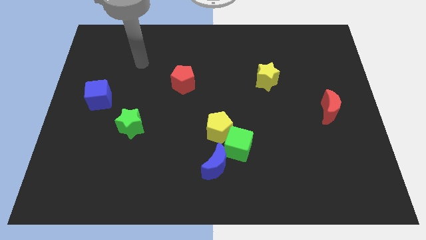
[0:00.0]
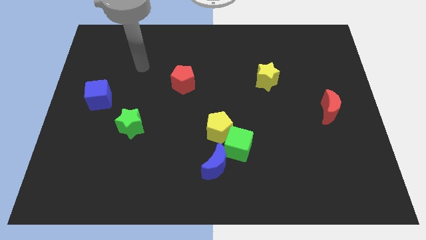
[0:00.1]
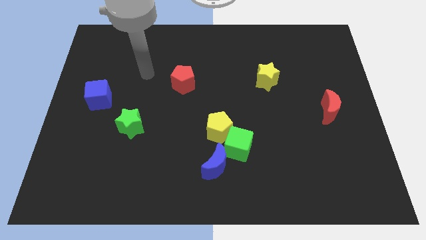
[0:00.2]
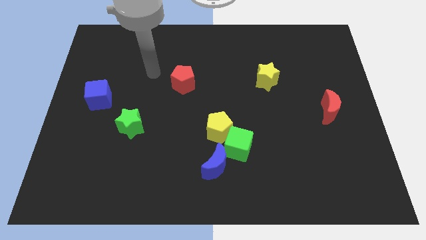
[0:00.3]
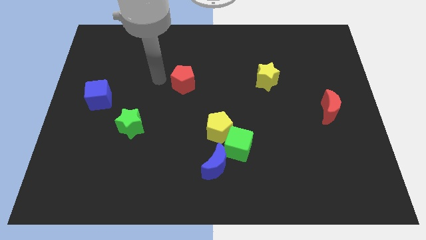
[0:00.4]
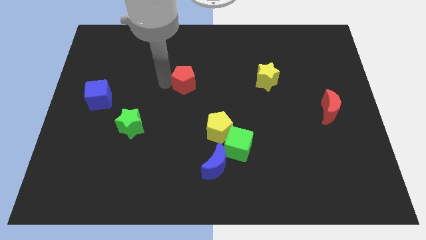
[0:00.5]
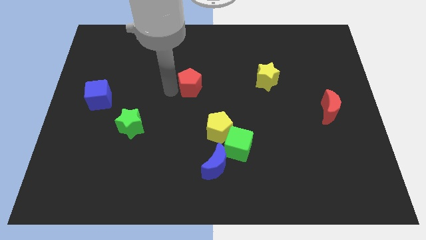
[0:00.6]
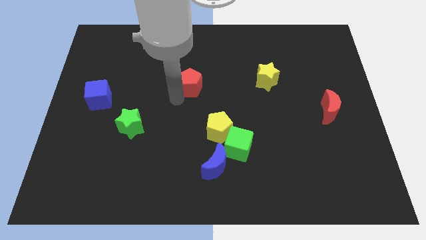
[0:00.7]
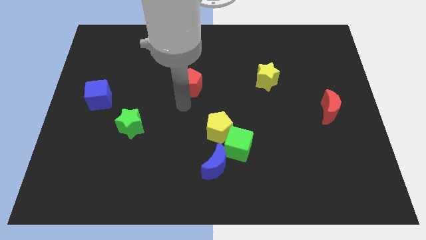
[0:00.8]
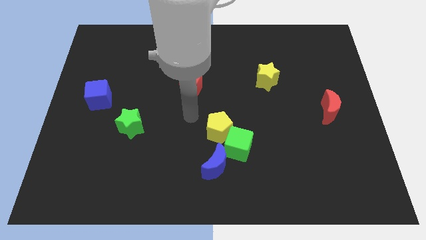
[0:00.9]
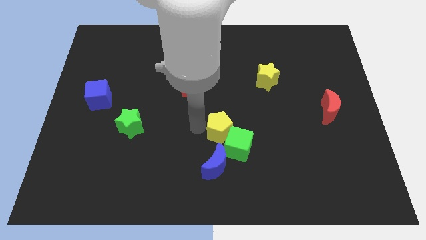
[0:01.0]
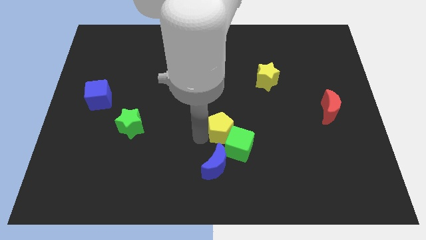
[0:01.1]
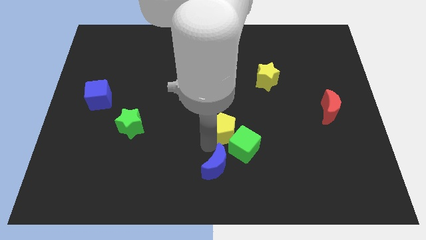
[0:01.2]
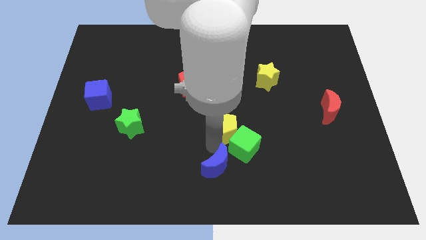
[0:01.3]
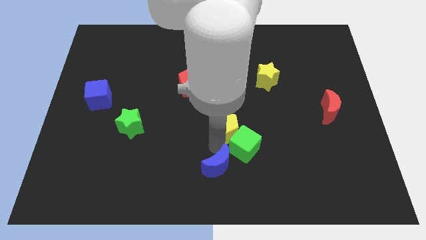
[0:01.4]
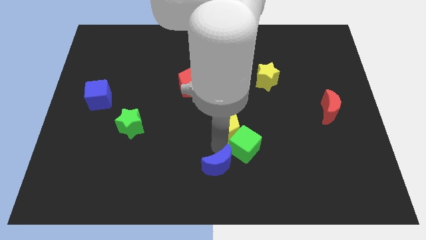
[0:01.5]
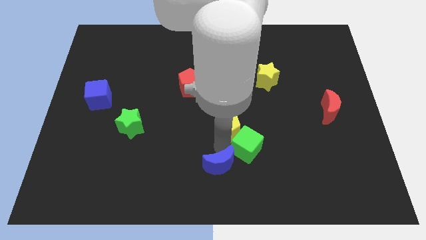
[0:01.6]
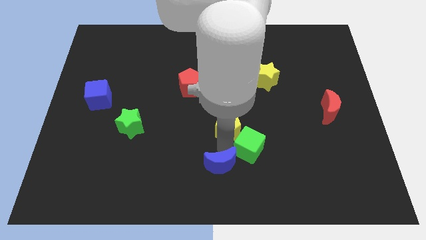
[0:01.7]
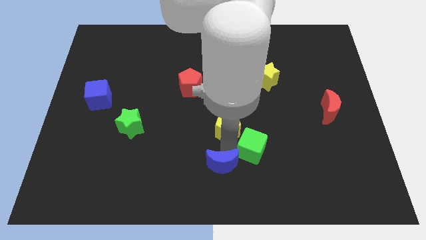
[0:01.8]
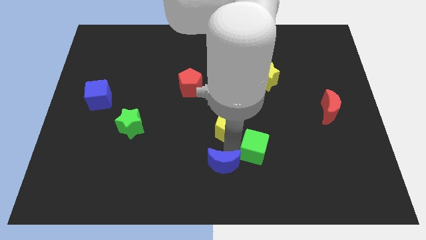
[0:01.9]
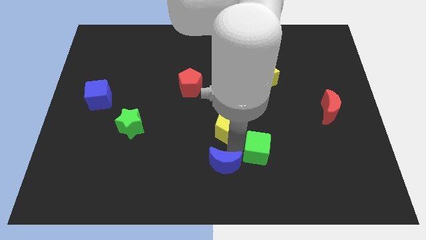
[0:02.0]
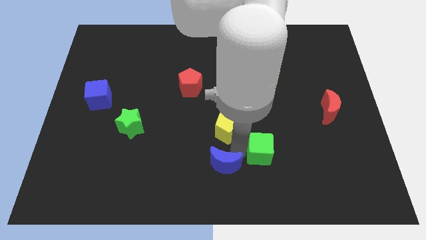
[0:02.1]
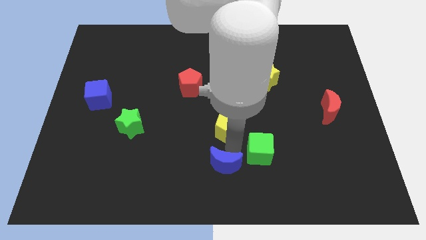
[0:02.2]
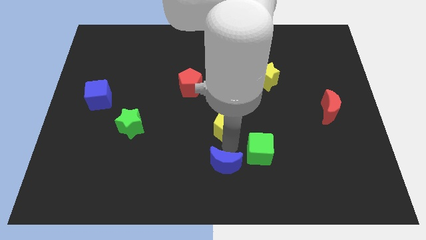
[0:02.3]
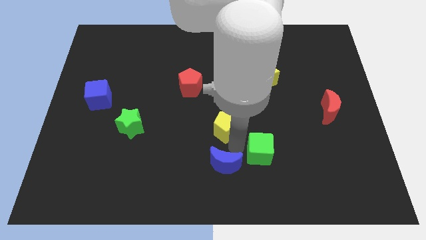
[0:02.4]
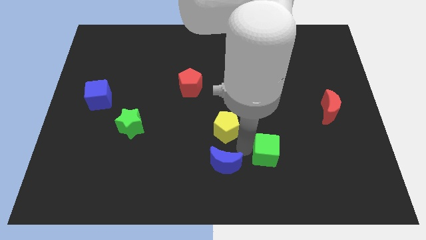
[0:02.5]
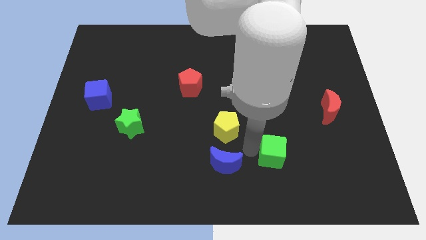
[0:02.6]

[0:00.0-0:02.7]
pull the green cube apart from the yellow pentagon and blue moon

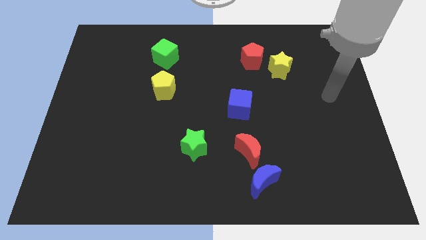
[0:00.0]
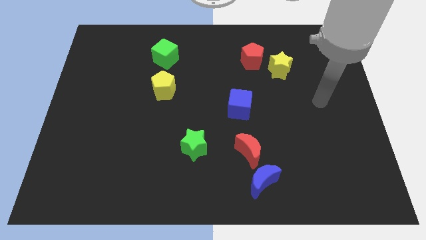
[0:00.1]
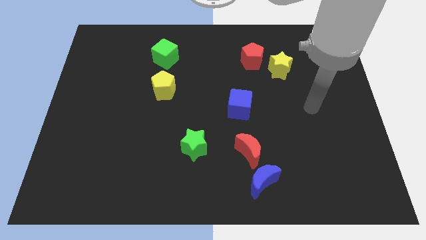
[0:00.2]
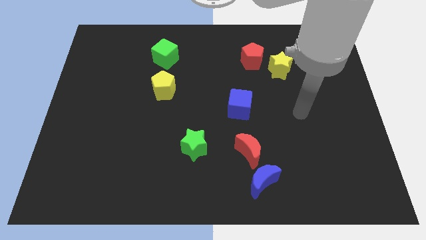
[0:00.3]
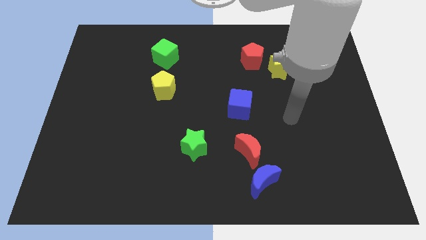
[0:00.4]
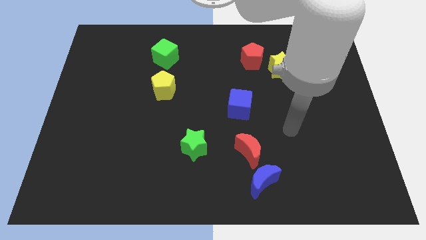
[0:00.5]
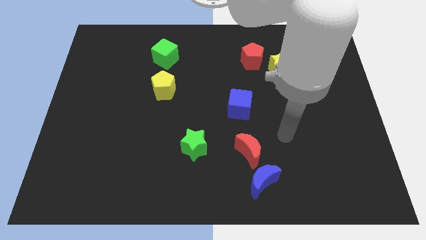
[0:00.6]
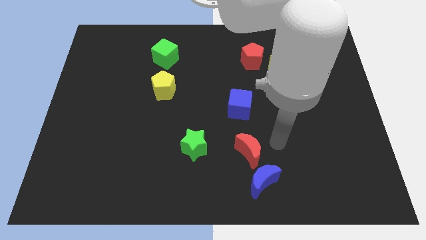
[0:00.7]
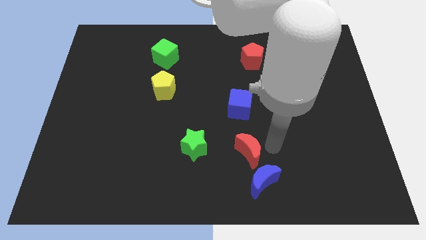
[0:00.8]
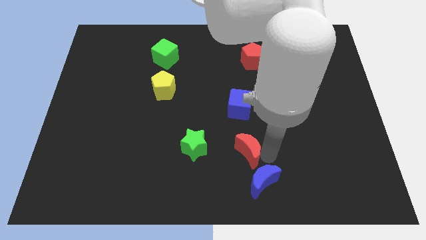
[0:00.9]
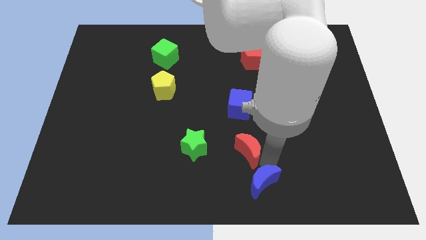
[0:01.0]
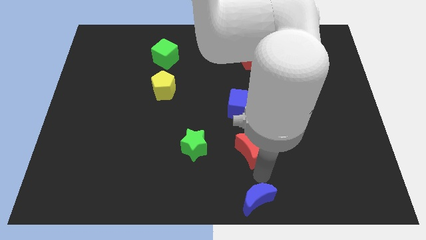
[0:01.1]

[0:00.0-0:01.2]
pull the red moon apart from the blue moon

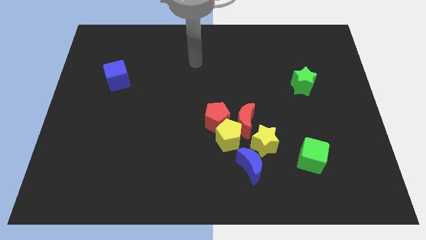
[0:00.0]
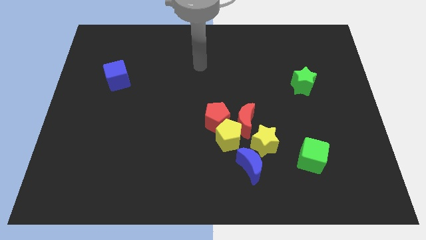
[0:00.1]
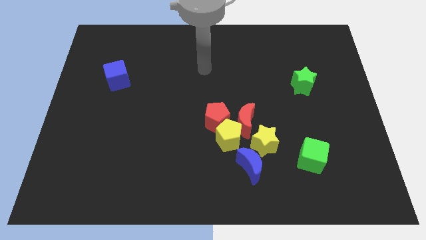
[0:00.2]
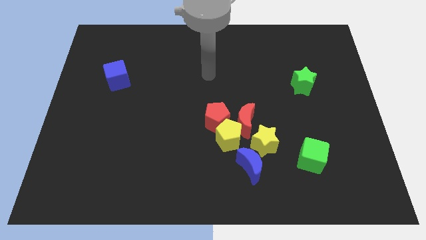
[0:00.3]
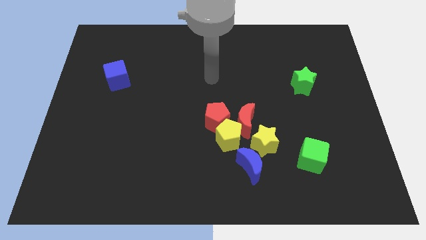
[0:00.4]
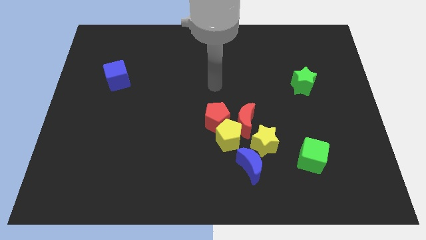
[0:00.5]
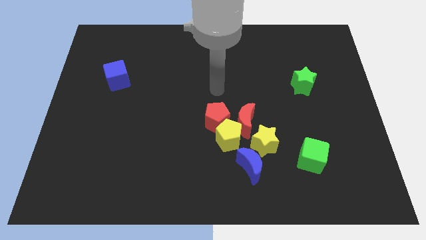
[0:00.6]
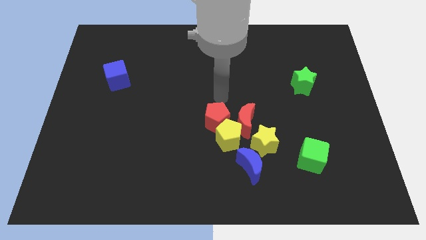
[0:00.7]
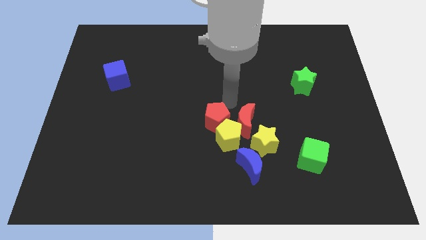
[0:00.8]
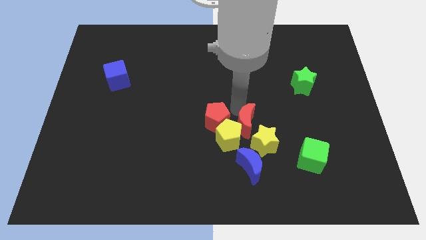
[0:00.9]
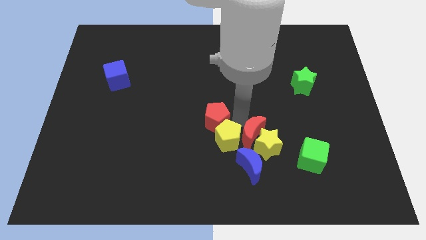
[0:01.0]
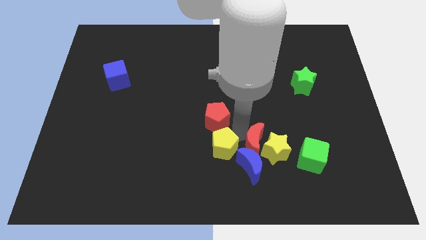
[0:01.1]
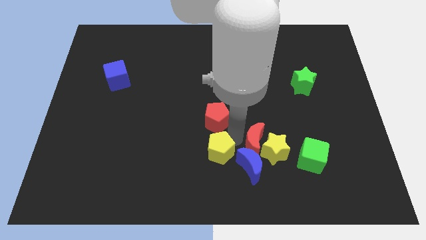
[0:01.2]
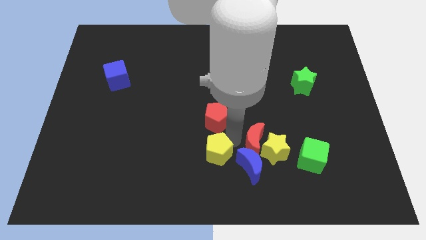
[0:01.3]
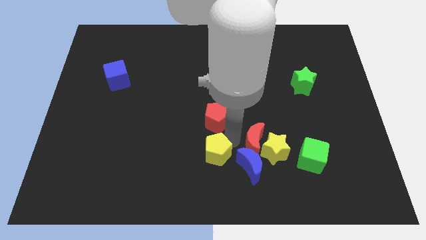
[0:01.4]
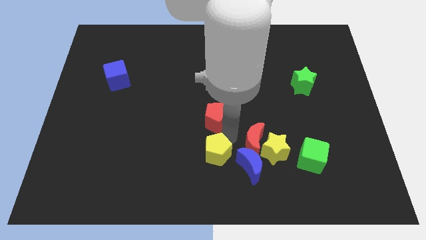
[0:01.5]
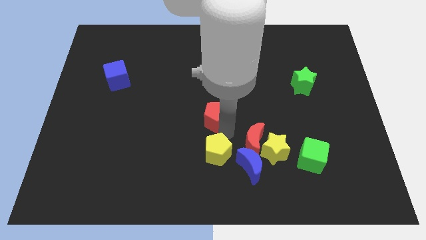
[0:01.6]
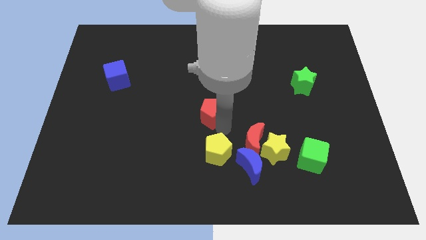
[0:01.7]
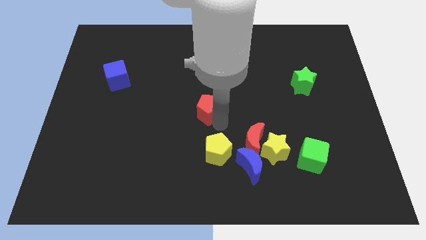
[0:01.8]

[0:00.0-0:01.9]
pull the red pentagon apart from the yellow pentagon and red moon

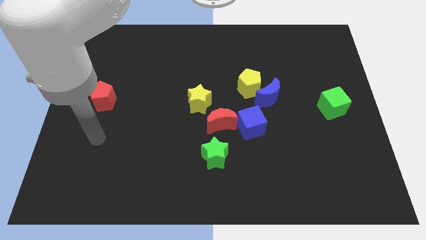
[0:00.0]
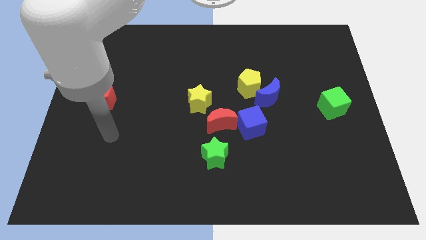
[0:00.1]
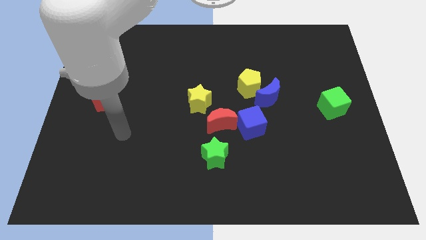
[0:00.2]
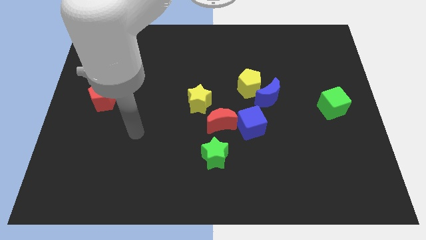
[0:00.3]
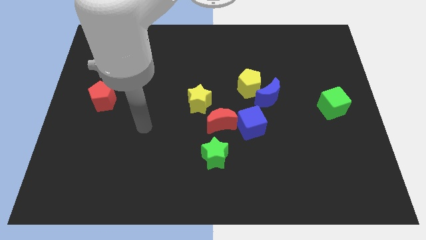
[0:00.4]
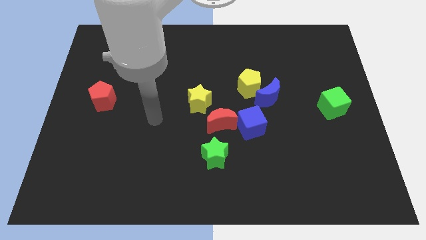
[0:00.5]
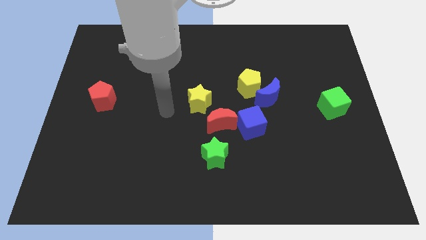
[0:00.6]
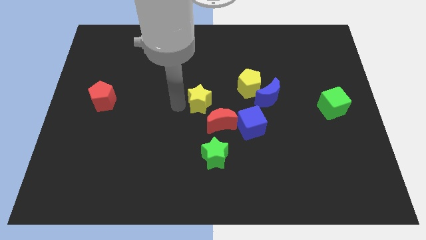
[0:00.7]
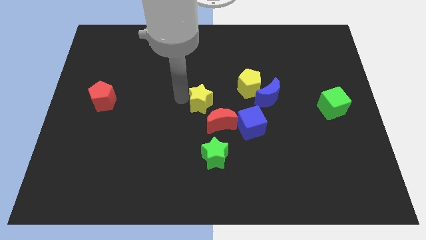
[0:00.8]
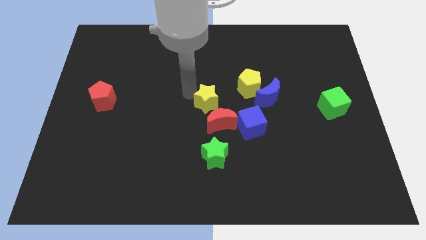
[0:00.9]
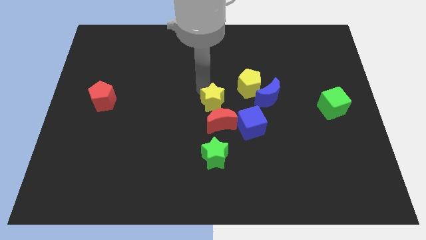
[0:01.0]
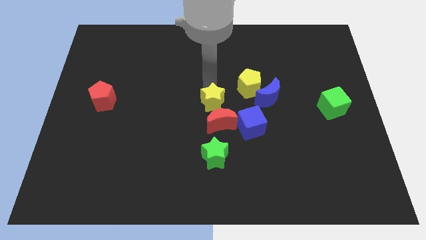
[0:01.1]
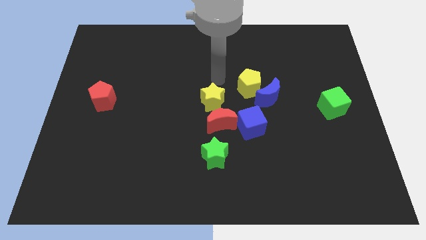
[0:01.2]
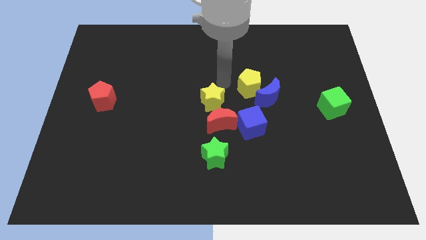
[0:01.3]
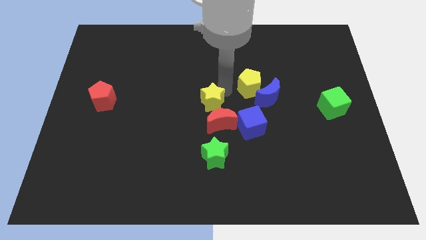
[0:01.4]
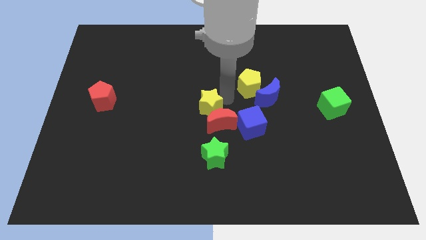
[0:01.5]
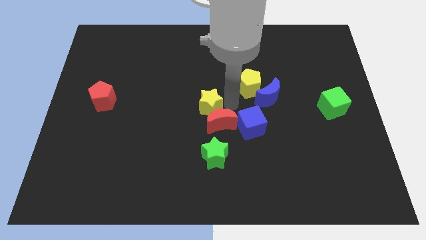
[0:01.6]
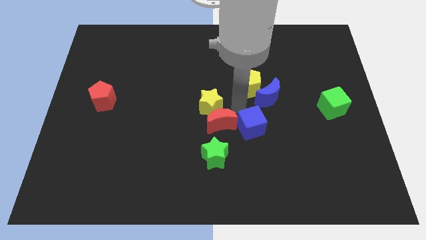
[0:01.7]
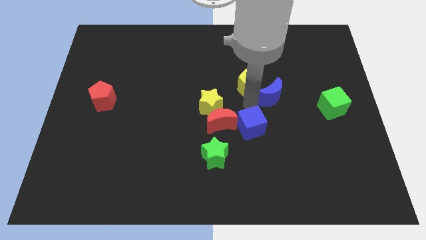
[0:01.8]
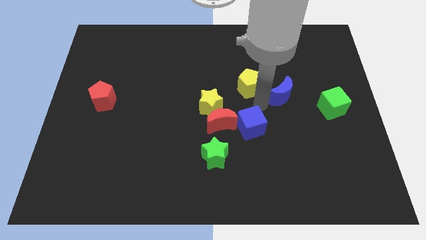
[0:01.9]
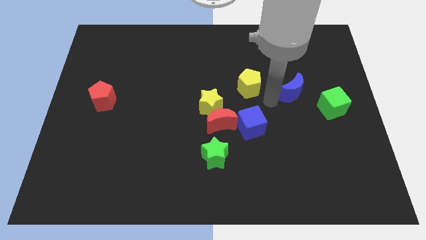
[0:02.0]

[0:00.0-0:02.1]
separate the yellow pentagon from the blue moon

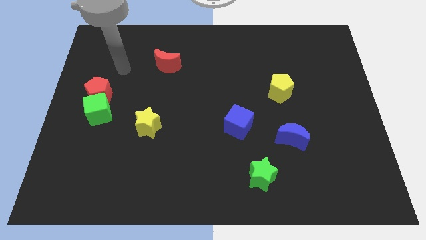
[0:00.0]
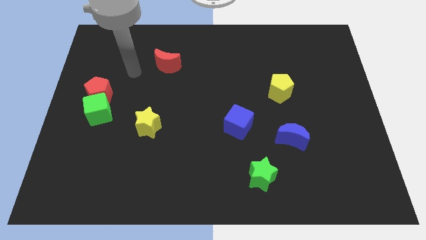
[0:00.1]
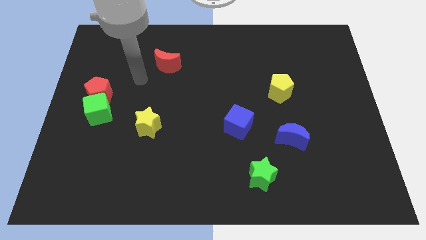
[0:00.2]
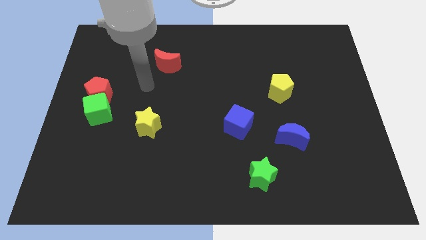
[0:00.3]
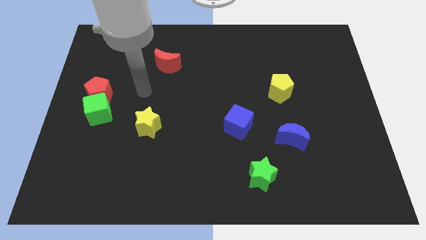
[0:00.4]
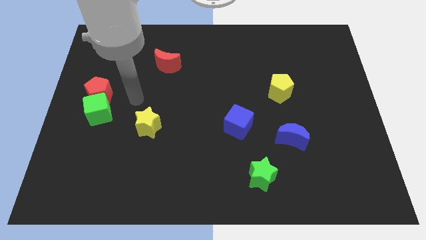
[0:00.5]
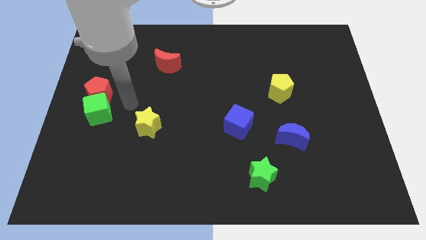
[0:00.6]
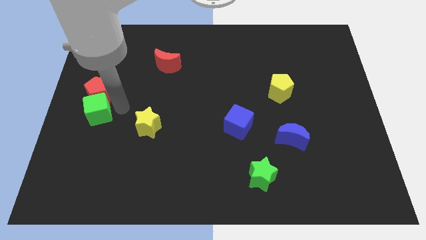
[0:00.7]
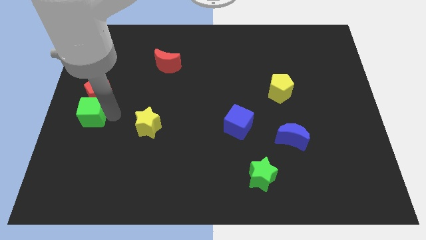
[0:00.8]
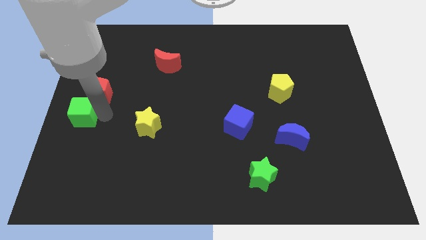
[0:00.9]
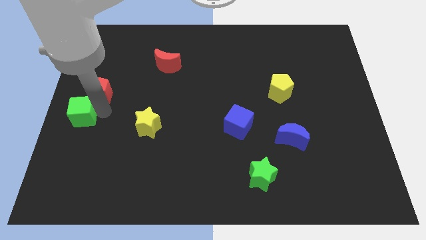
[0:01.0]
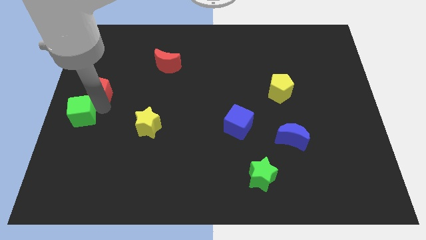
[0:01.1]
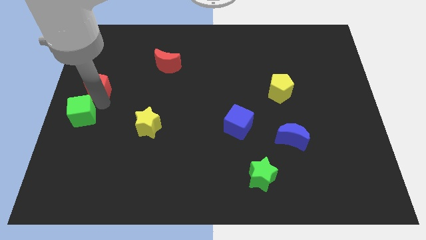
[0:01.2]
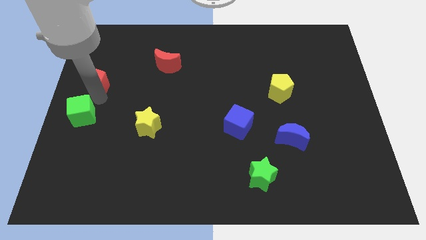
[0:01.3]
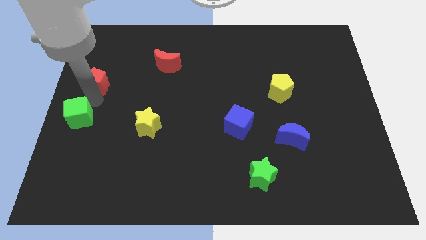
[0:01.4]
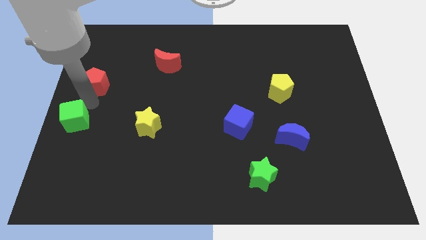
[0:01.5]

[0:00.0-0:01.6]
move the red pentagon away from the green cube

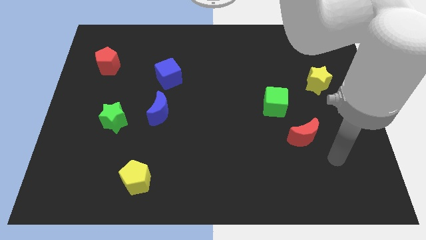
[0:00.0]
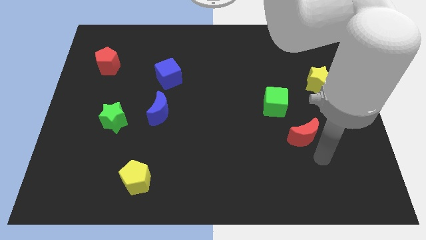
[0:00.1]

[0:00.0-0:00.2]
move the blue moon away from the green star
